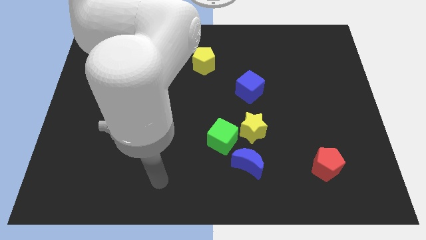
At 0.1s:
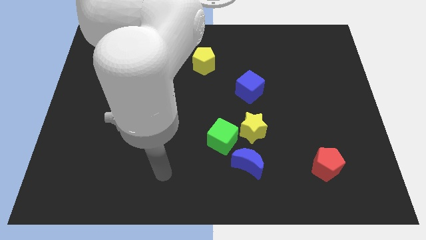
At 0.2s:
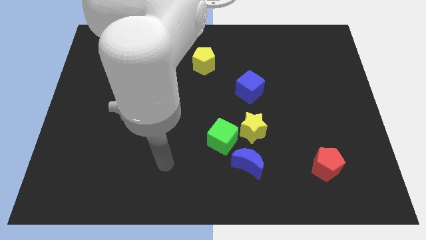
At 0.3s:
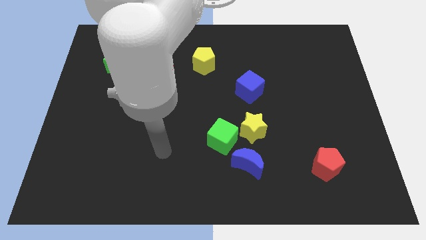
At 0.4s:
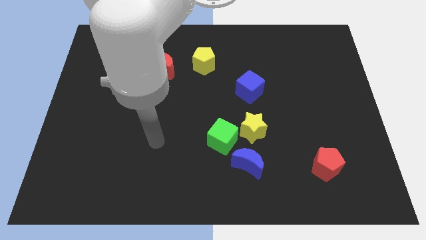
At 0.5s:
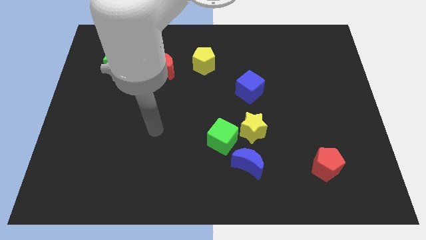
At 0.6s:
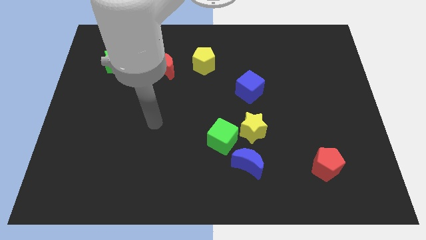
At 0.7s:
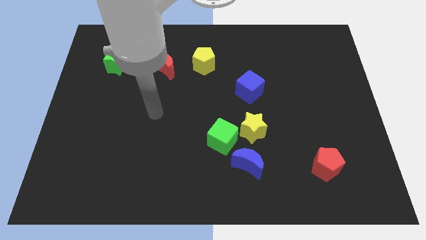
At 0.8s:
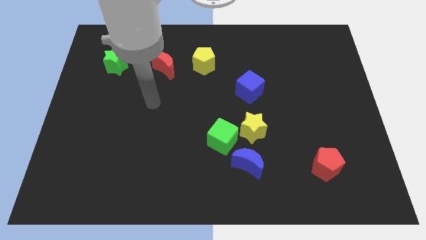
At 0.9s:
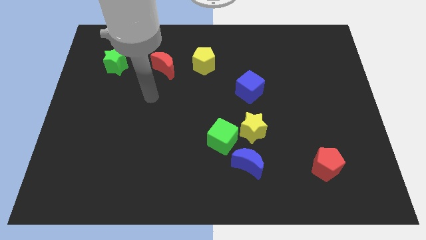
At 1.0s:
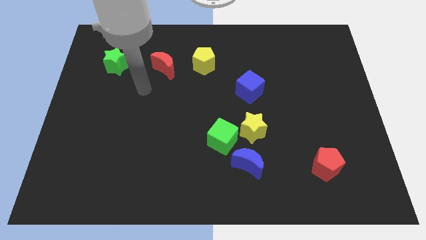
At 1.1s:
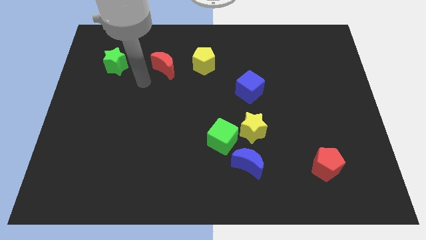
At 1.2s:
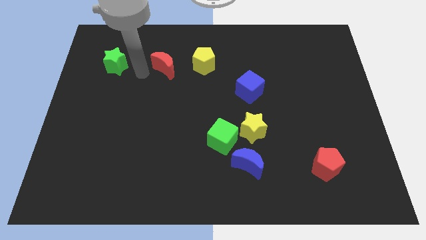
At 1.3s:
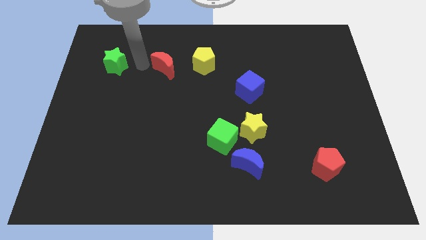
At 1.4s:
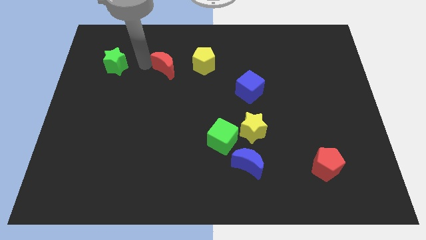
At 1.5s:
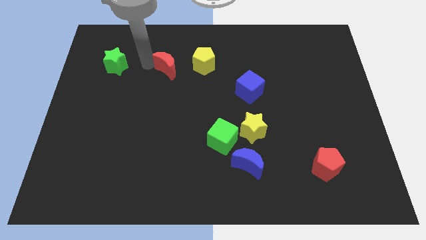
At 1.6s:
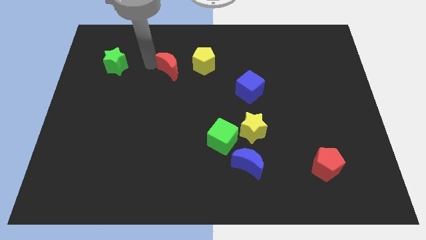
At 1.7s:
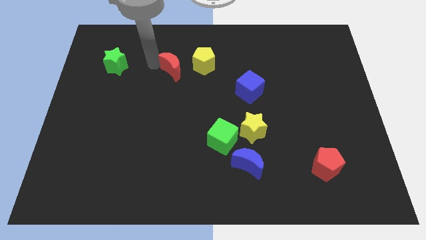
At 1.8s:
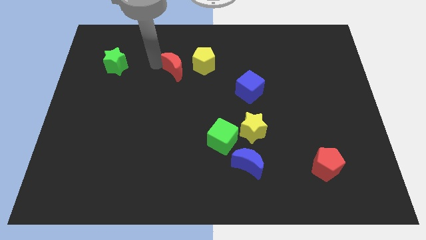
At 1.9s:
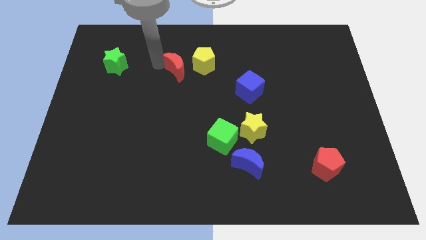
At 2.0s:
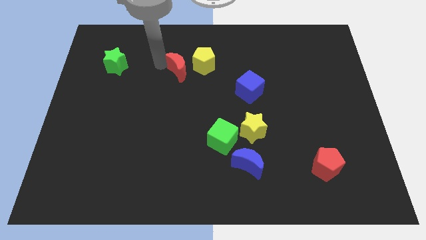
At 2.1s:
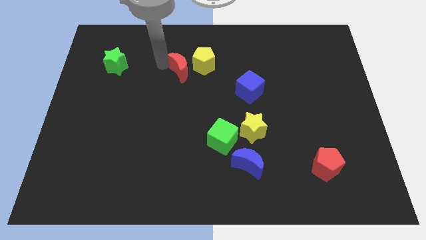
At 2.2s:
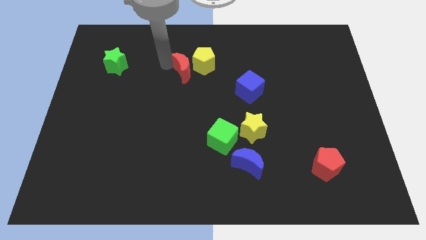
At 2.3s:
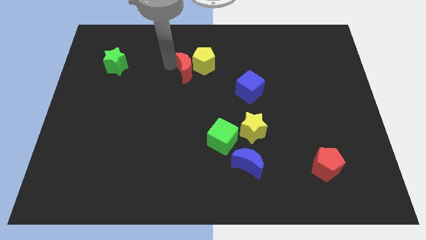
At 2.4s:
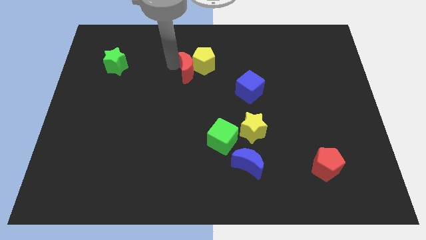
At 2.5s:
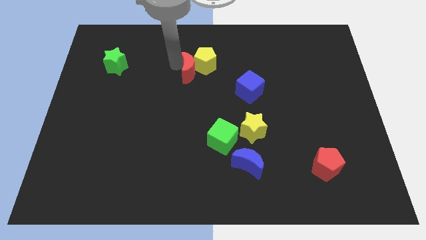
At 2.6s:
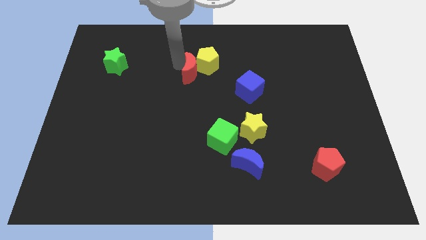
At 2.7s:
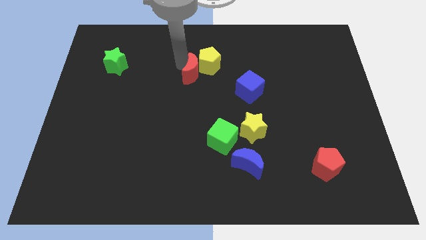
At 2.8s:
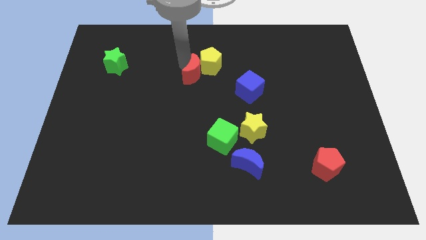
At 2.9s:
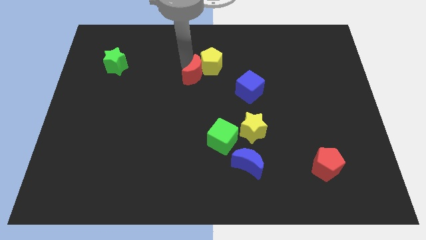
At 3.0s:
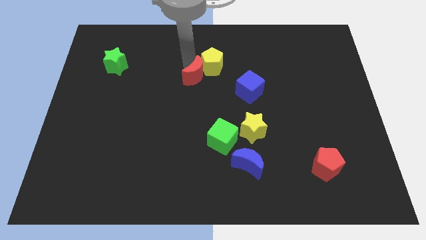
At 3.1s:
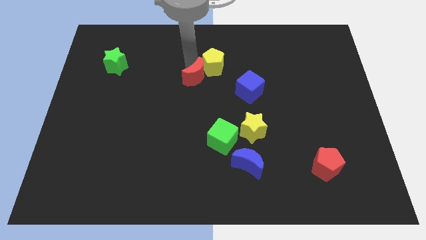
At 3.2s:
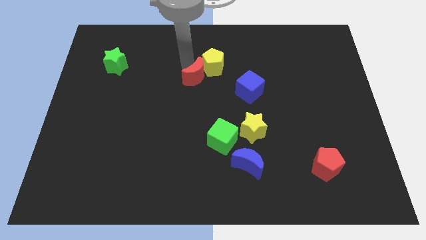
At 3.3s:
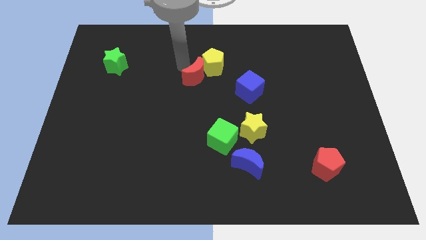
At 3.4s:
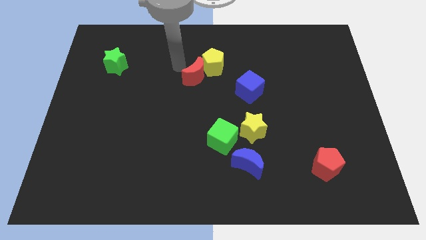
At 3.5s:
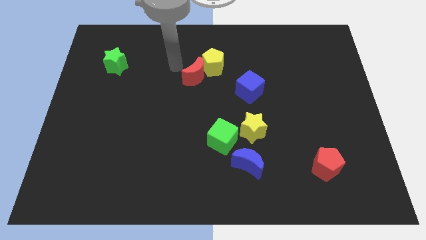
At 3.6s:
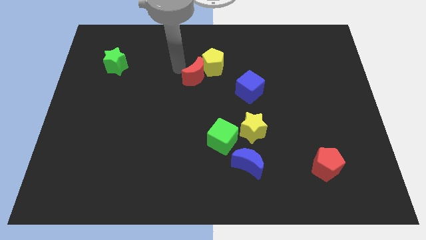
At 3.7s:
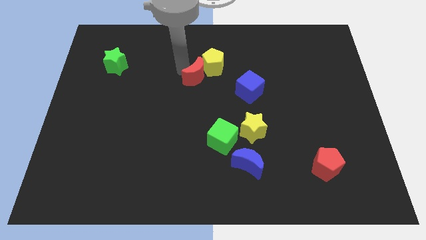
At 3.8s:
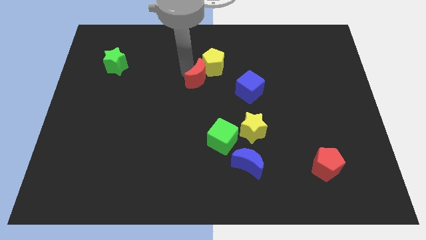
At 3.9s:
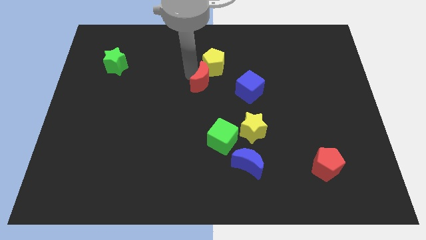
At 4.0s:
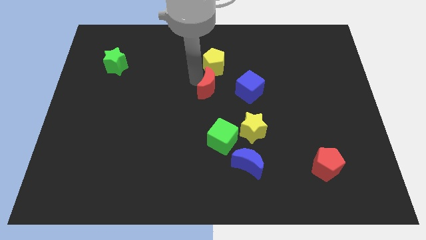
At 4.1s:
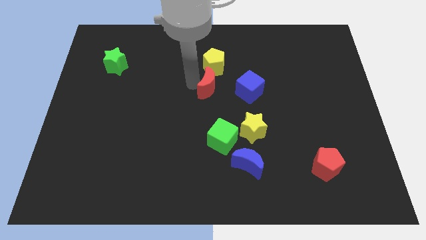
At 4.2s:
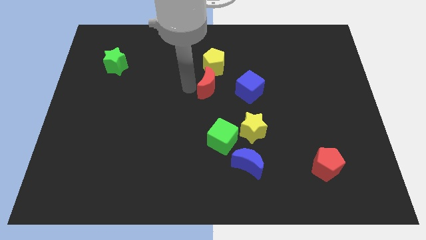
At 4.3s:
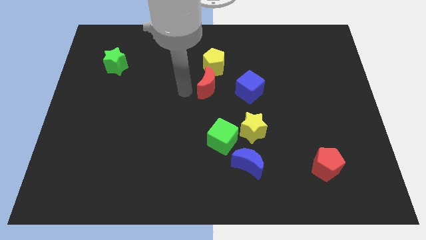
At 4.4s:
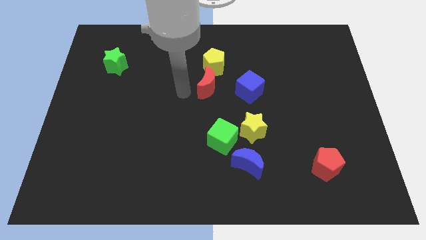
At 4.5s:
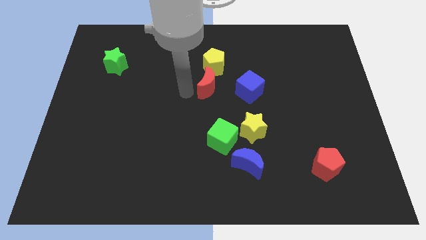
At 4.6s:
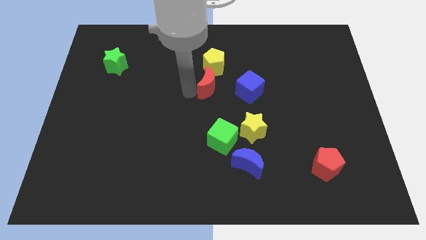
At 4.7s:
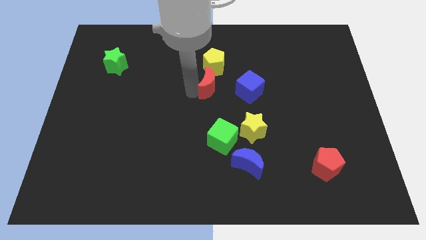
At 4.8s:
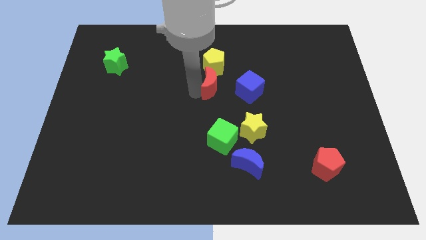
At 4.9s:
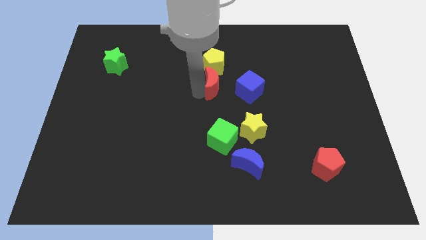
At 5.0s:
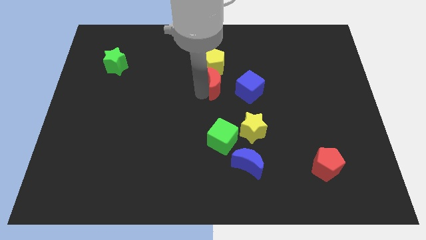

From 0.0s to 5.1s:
slide the red moon to the bottom right side of the yellow pentagon

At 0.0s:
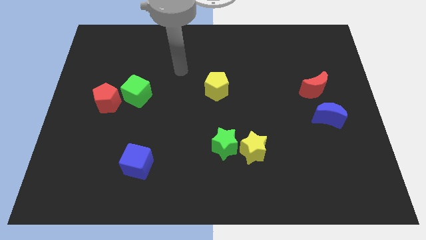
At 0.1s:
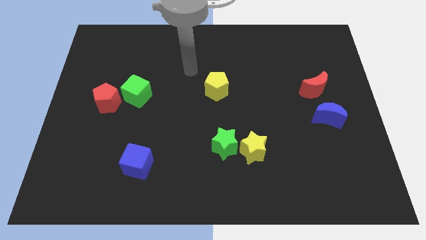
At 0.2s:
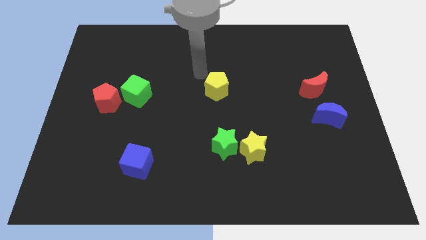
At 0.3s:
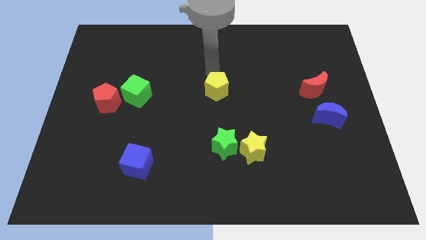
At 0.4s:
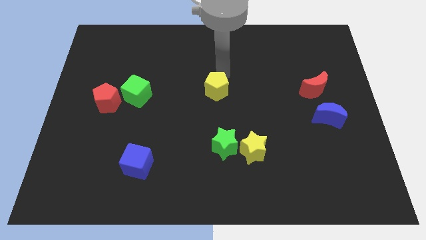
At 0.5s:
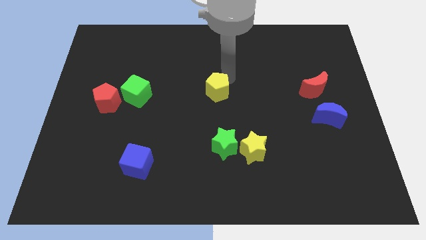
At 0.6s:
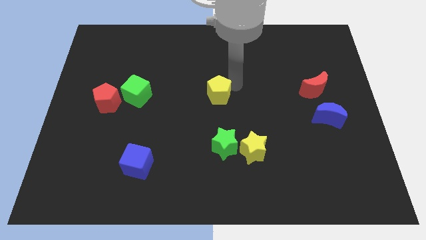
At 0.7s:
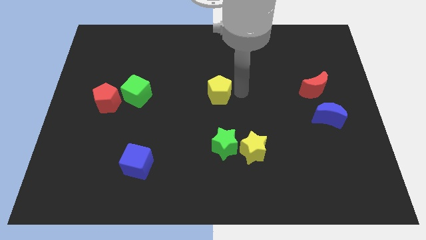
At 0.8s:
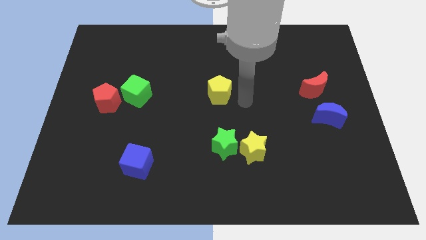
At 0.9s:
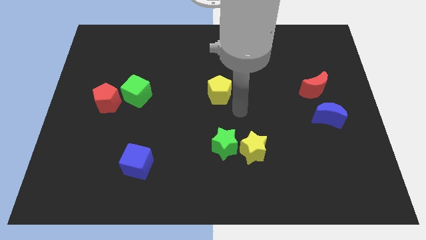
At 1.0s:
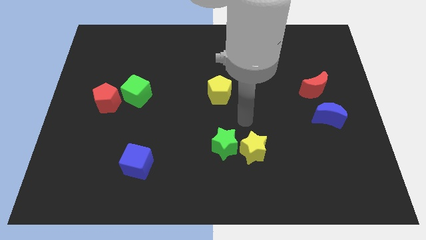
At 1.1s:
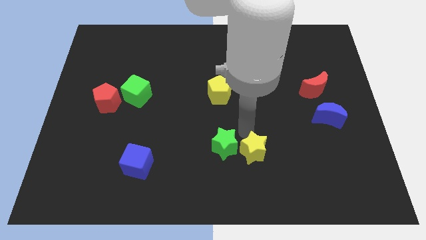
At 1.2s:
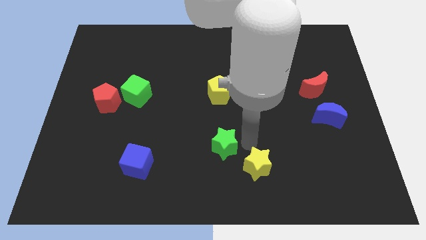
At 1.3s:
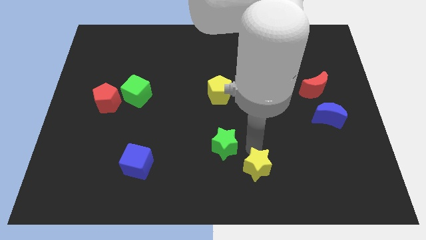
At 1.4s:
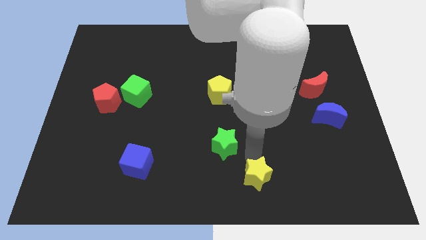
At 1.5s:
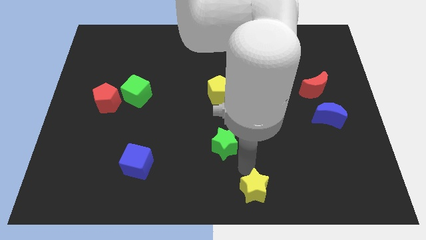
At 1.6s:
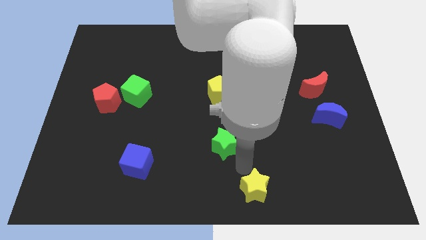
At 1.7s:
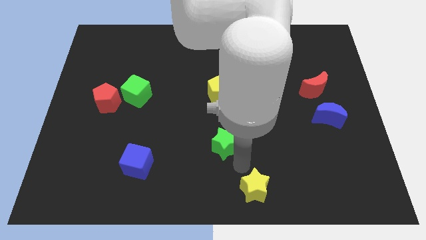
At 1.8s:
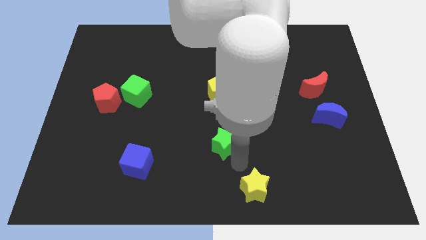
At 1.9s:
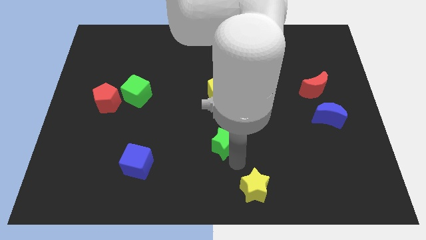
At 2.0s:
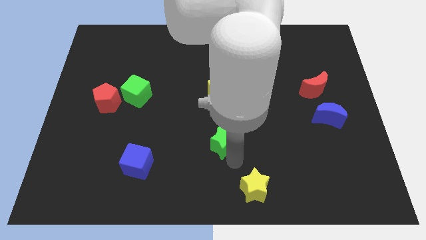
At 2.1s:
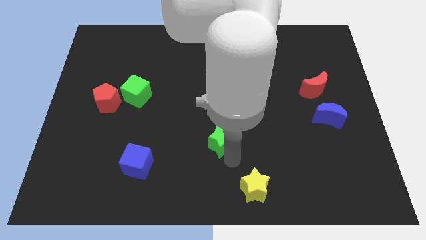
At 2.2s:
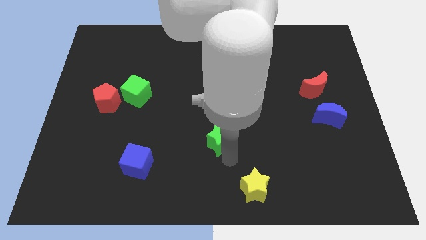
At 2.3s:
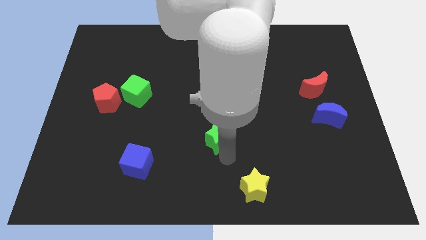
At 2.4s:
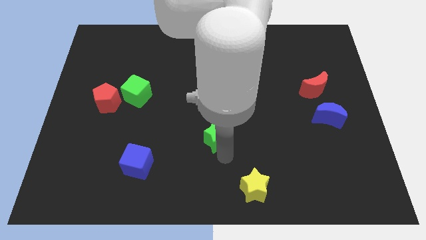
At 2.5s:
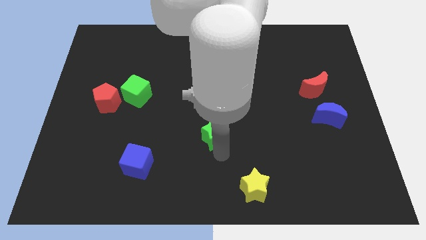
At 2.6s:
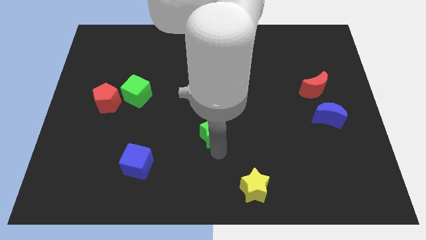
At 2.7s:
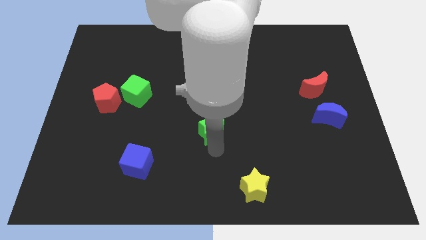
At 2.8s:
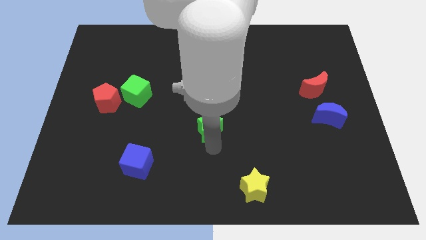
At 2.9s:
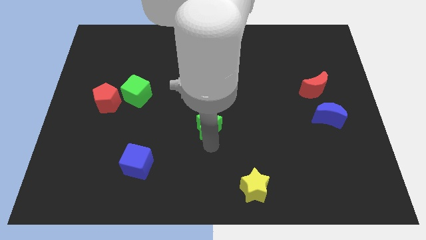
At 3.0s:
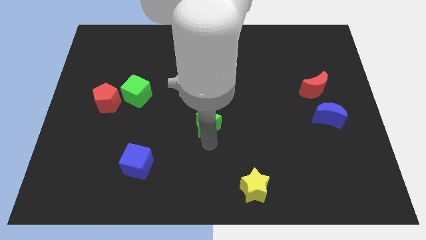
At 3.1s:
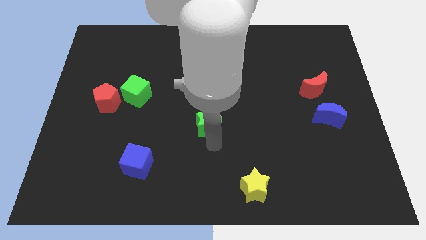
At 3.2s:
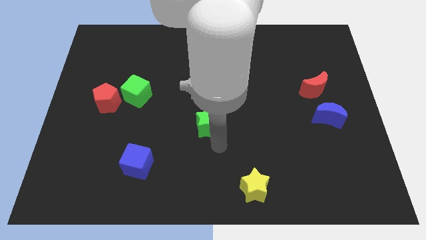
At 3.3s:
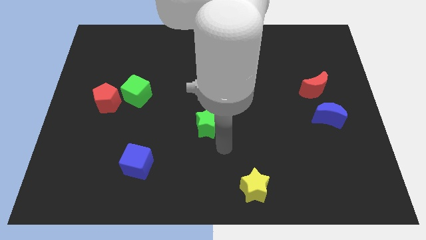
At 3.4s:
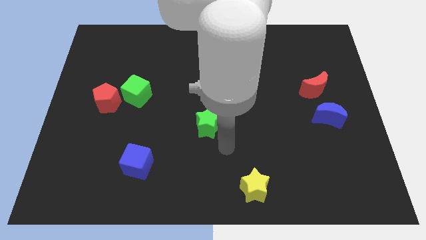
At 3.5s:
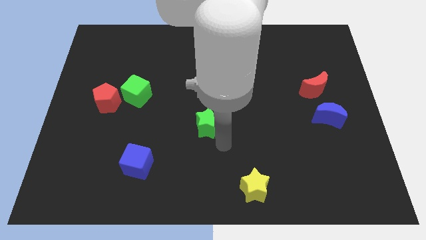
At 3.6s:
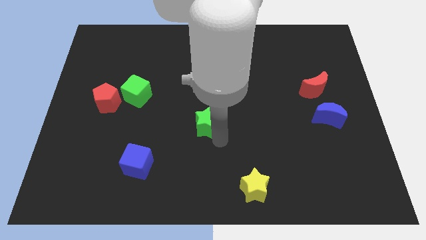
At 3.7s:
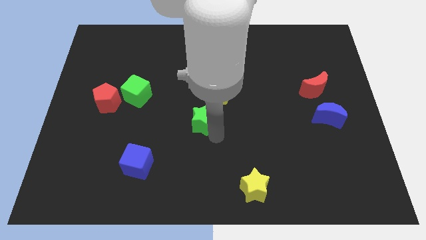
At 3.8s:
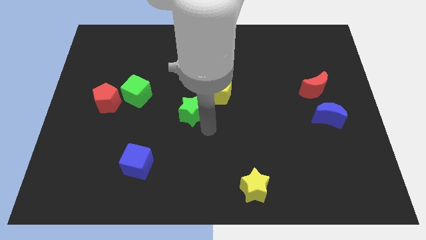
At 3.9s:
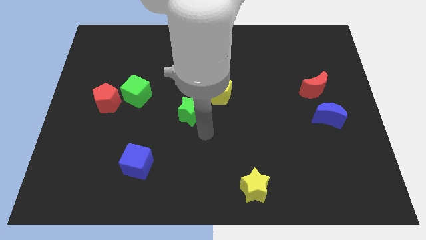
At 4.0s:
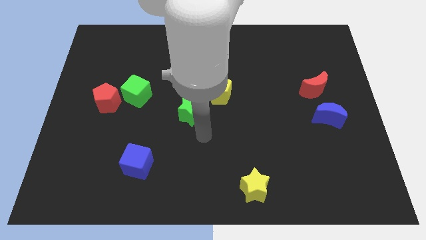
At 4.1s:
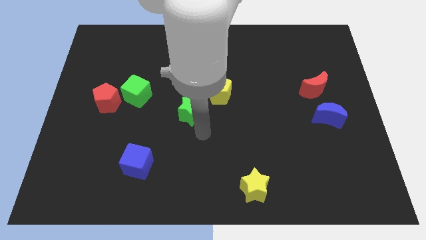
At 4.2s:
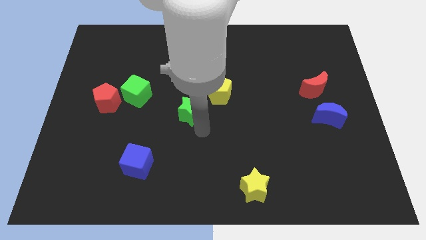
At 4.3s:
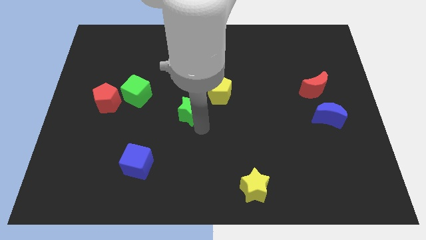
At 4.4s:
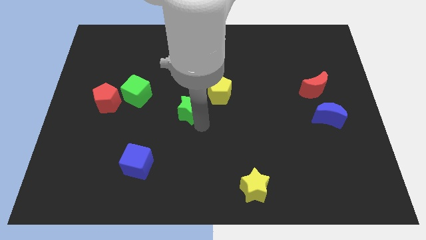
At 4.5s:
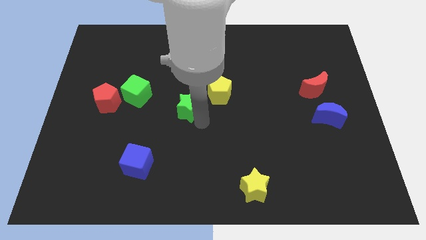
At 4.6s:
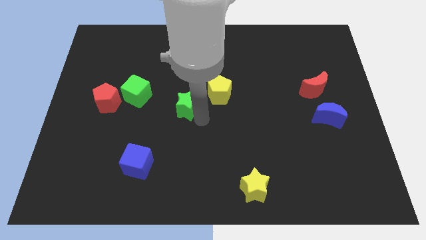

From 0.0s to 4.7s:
move the green star just right of the green cube
